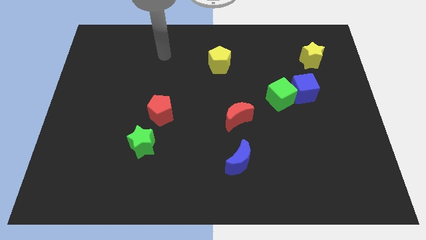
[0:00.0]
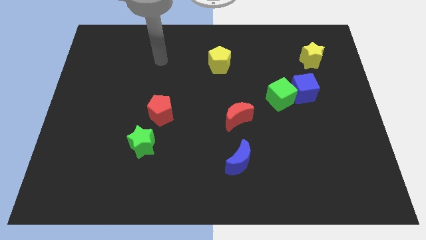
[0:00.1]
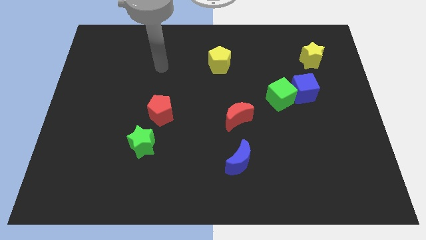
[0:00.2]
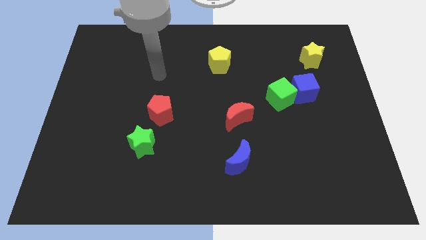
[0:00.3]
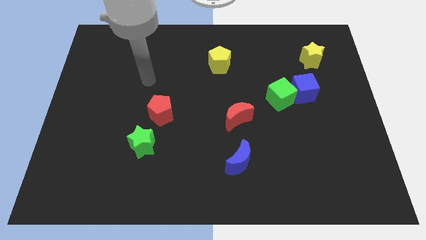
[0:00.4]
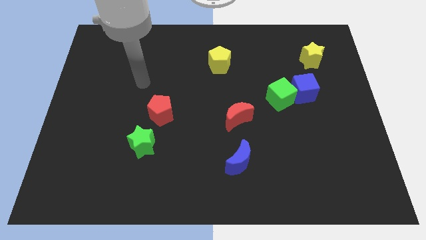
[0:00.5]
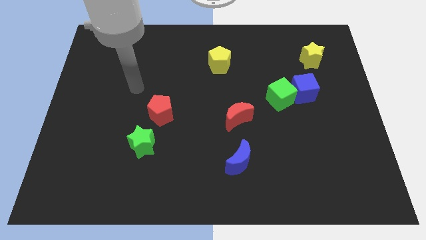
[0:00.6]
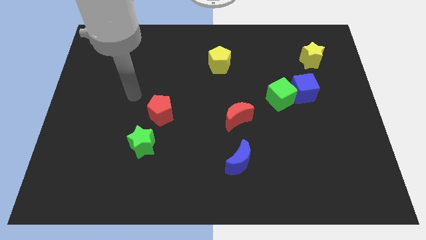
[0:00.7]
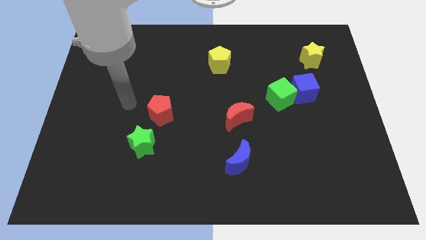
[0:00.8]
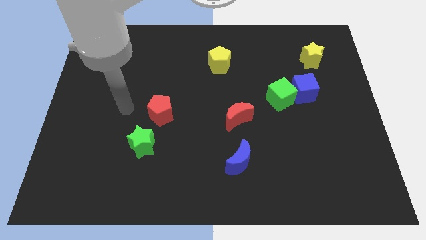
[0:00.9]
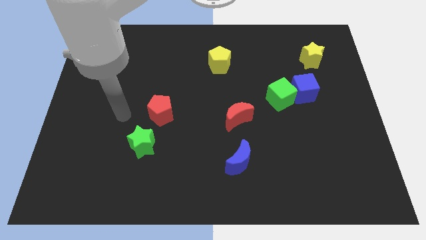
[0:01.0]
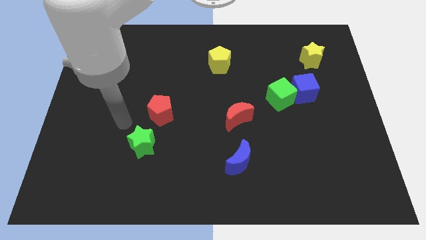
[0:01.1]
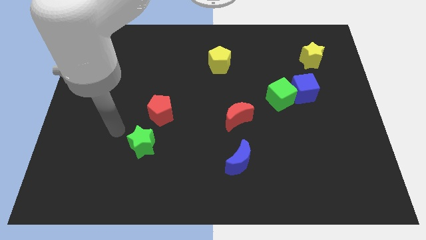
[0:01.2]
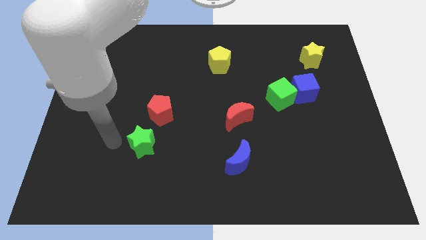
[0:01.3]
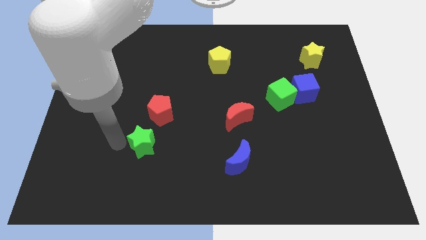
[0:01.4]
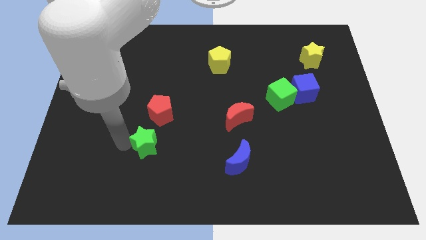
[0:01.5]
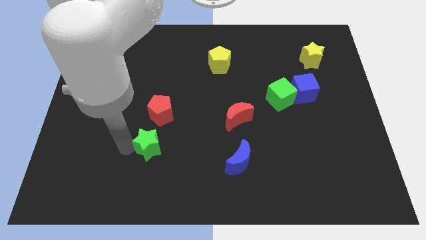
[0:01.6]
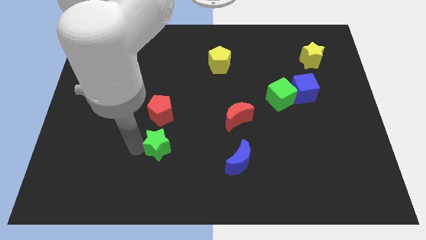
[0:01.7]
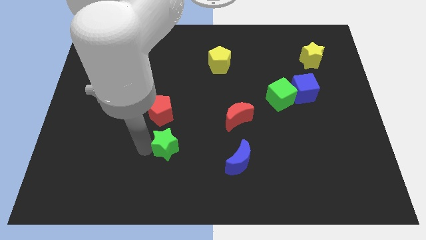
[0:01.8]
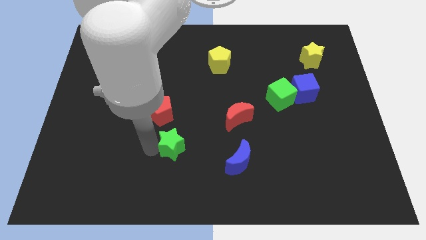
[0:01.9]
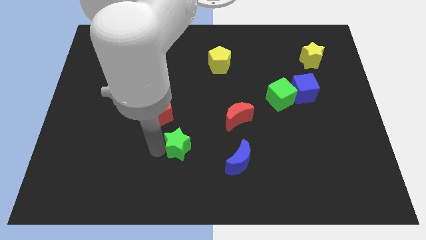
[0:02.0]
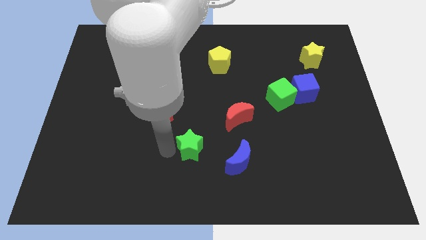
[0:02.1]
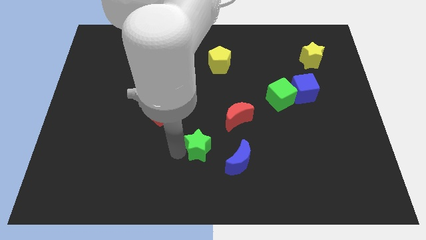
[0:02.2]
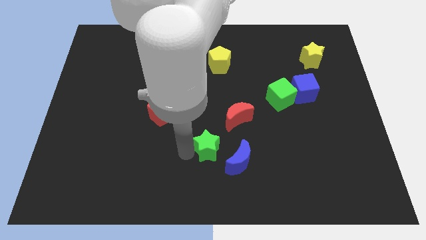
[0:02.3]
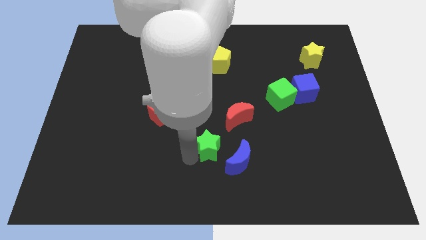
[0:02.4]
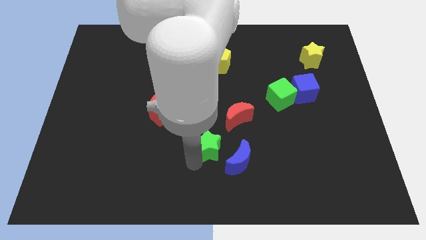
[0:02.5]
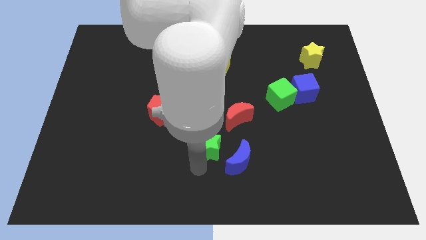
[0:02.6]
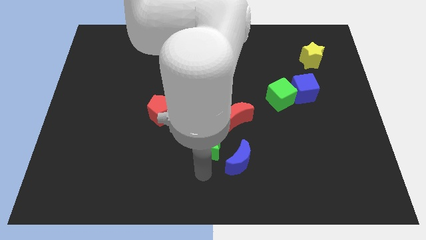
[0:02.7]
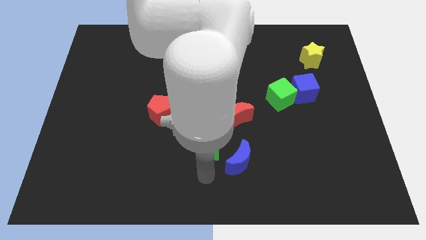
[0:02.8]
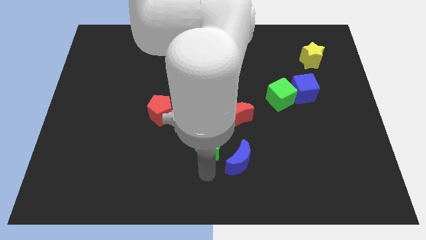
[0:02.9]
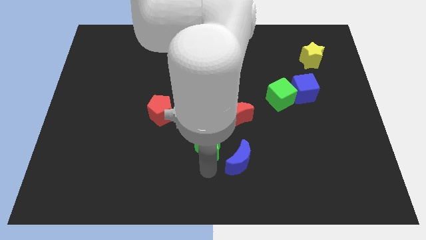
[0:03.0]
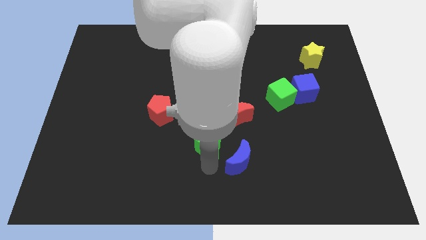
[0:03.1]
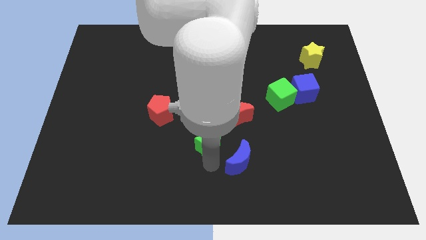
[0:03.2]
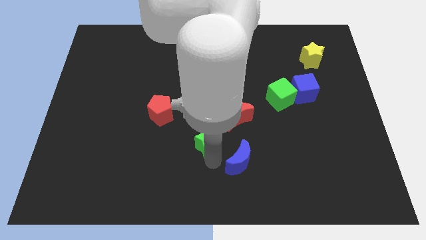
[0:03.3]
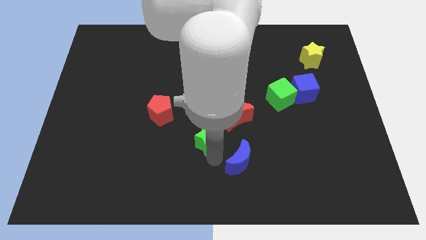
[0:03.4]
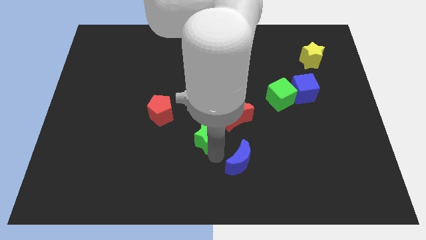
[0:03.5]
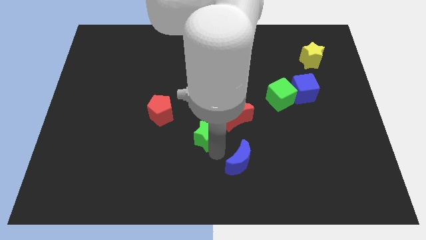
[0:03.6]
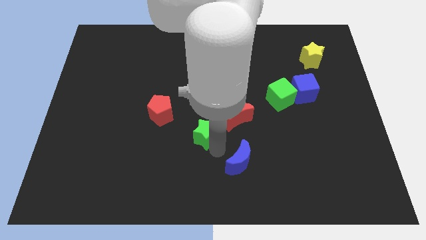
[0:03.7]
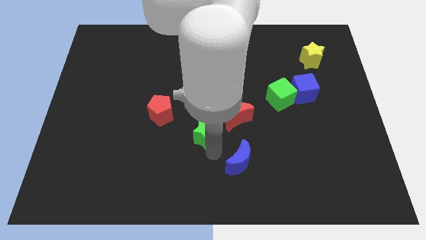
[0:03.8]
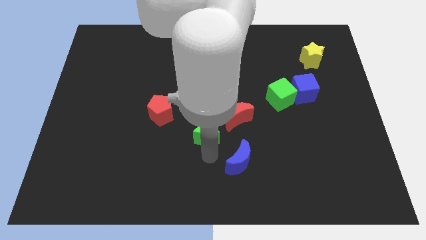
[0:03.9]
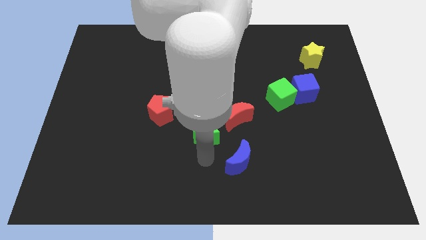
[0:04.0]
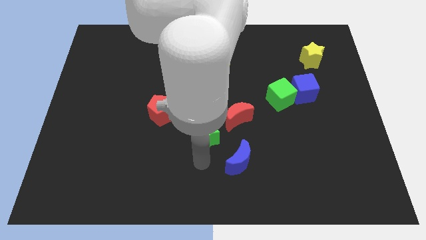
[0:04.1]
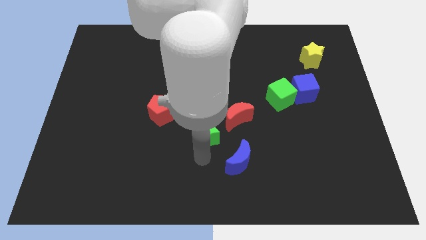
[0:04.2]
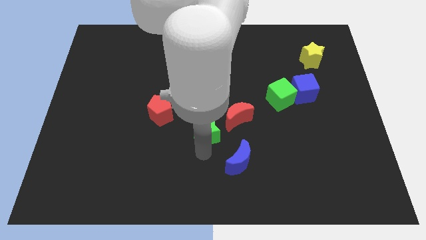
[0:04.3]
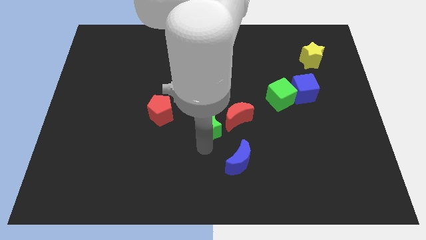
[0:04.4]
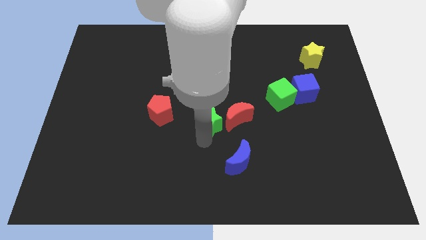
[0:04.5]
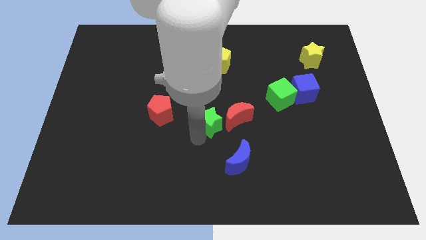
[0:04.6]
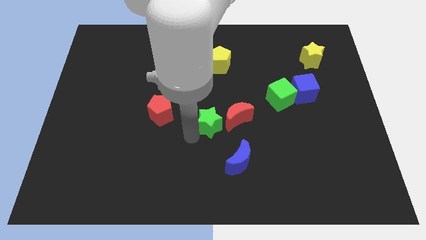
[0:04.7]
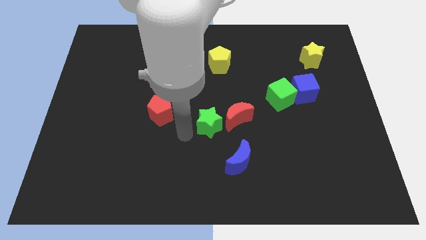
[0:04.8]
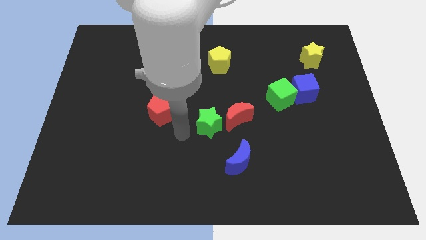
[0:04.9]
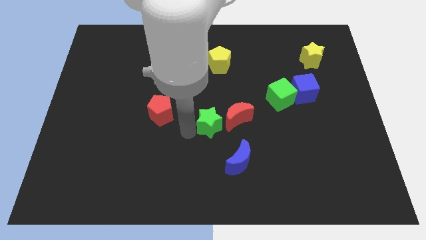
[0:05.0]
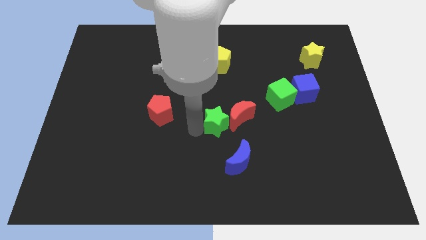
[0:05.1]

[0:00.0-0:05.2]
put the green star towards the red moon

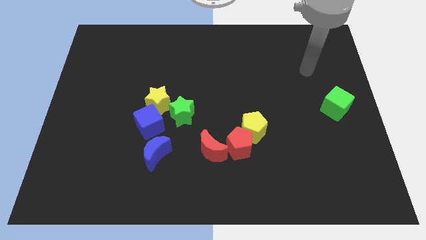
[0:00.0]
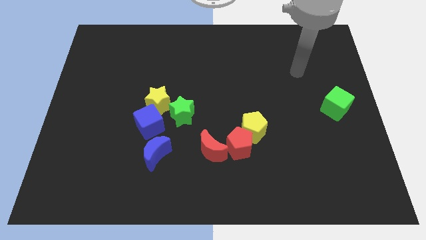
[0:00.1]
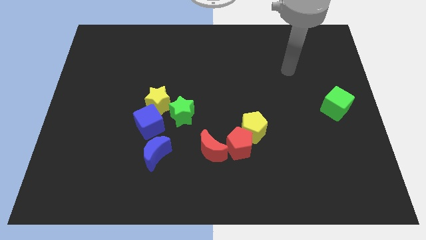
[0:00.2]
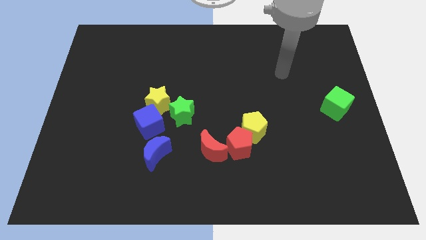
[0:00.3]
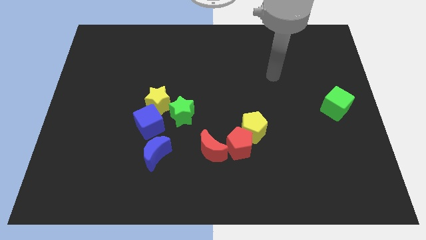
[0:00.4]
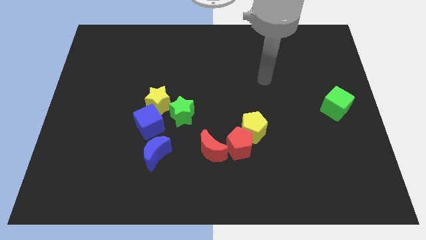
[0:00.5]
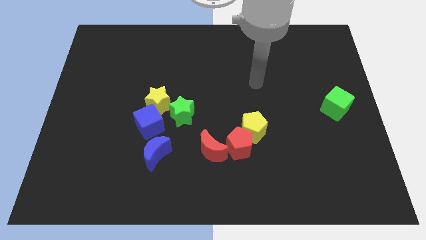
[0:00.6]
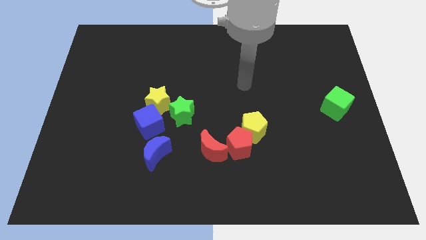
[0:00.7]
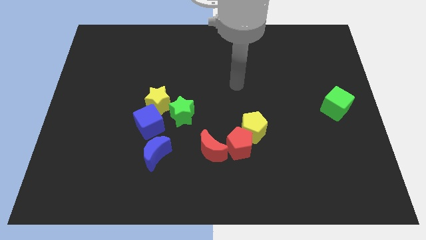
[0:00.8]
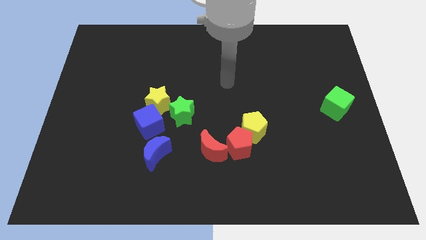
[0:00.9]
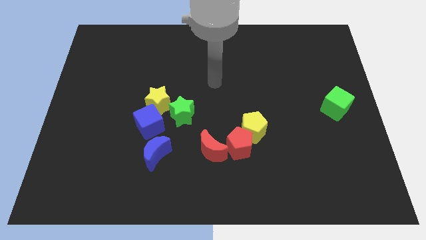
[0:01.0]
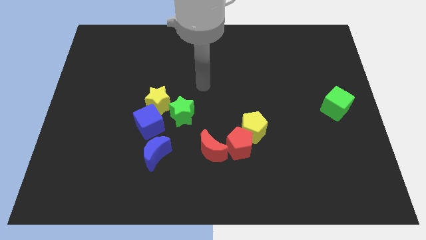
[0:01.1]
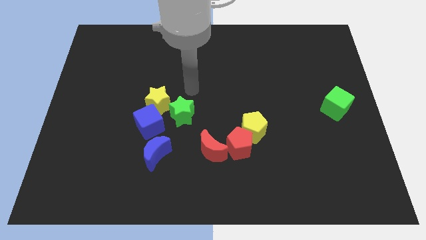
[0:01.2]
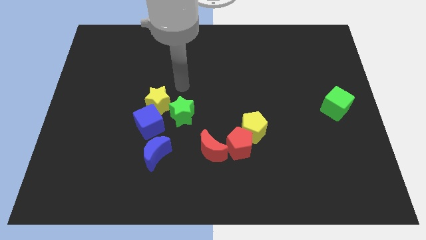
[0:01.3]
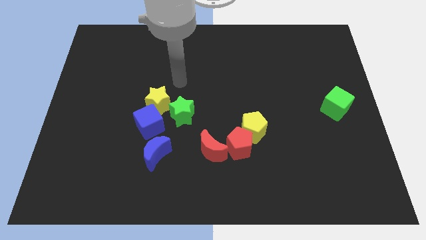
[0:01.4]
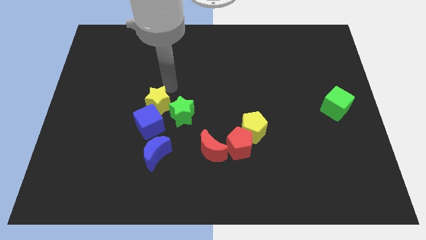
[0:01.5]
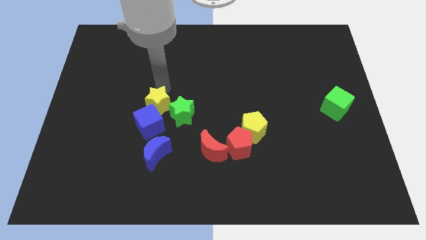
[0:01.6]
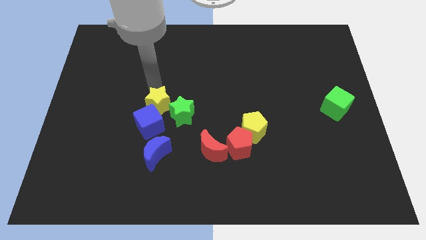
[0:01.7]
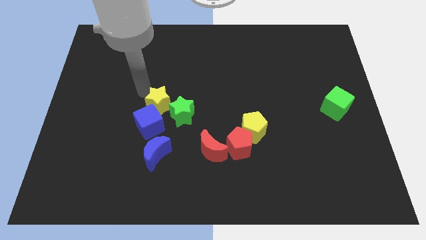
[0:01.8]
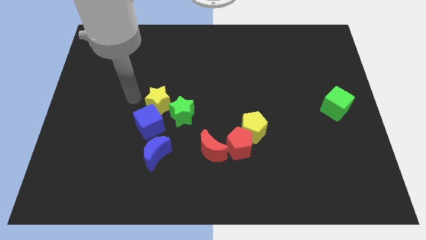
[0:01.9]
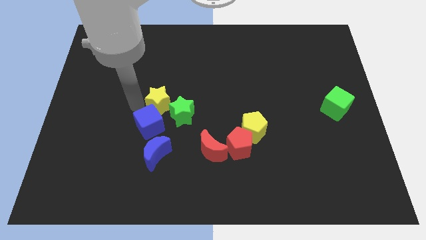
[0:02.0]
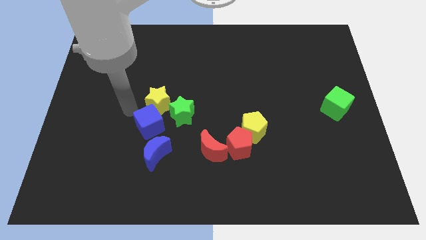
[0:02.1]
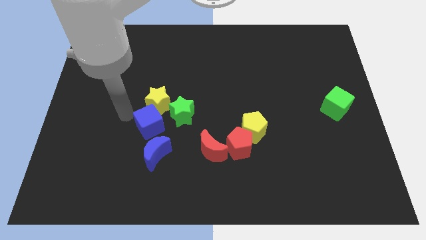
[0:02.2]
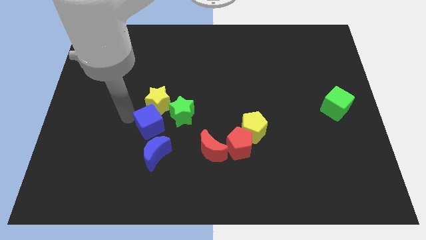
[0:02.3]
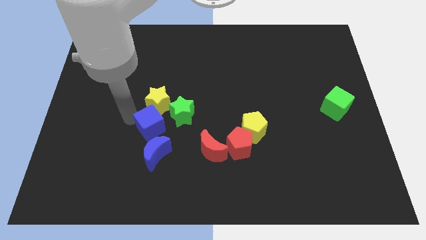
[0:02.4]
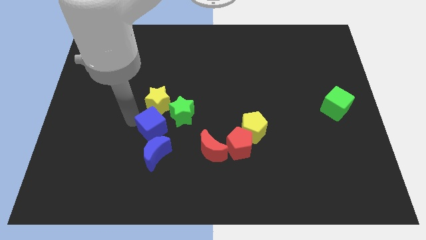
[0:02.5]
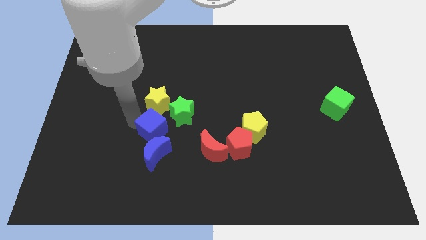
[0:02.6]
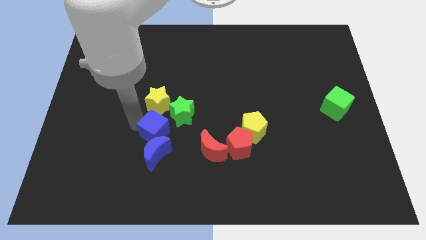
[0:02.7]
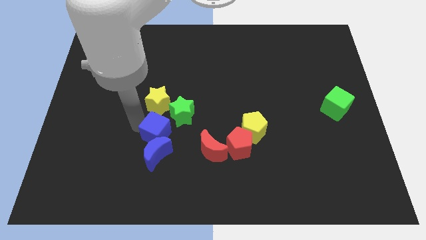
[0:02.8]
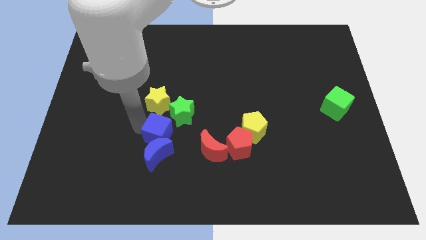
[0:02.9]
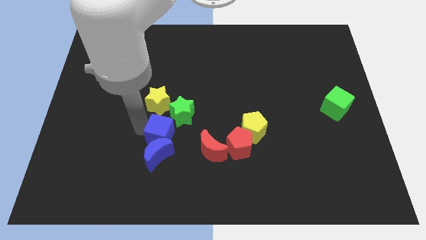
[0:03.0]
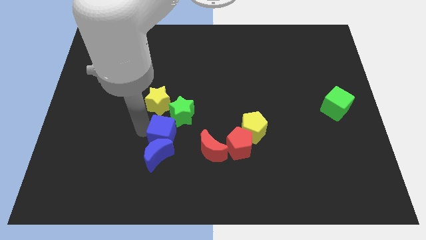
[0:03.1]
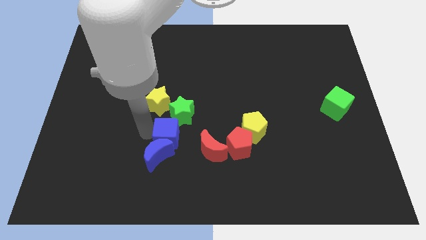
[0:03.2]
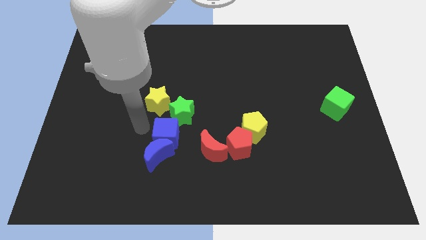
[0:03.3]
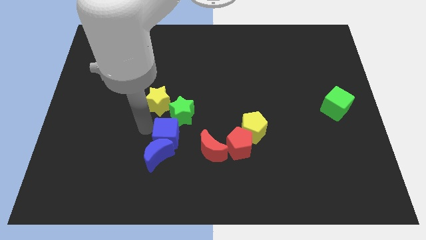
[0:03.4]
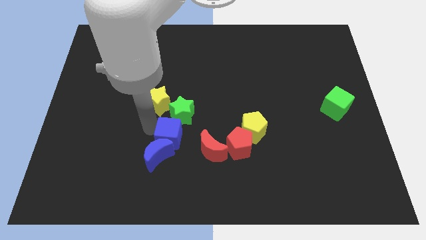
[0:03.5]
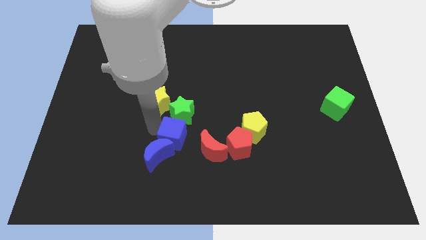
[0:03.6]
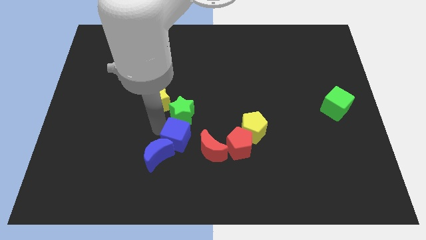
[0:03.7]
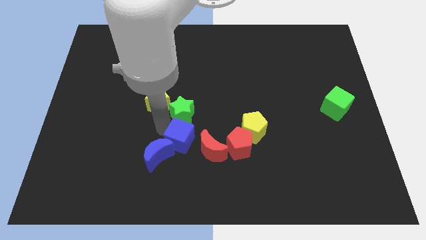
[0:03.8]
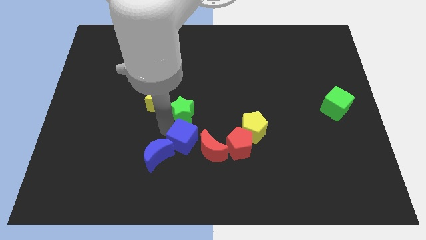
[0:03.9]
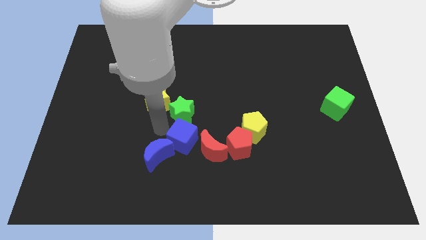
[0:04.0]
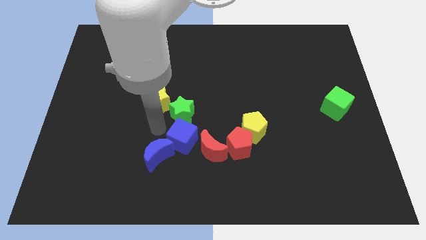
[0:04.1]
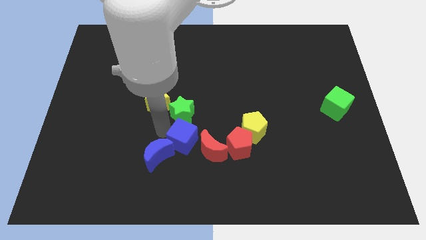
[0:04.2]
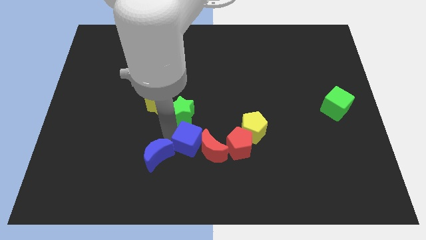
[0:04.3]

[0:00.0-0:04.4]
push the blue cube next to the red moon
